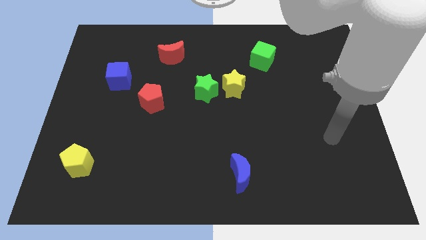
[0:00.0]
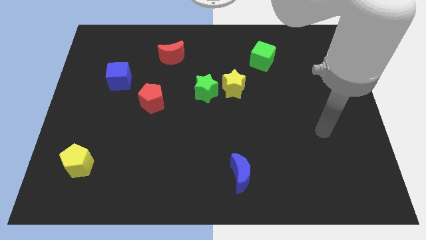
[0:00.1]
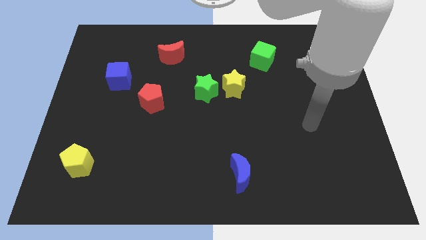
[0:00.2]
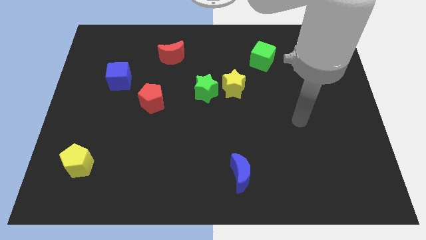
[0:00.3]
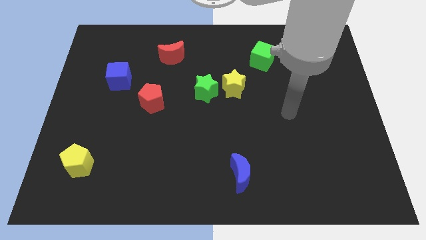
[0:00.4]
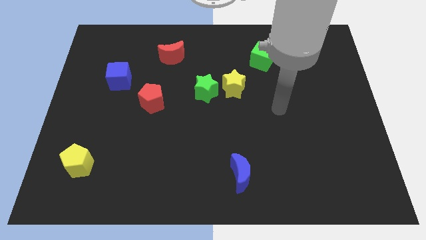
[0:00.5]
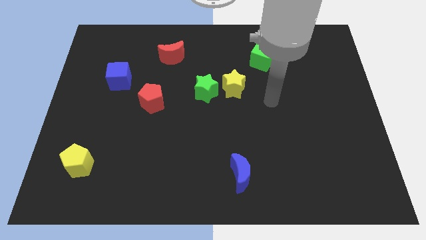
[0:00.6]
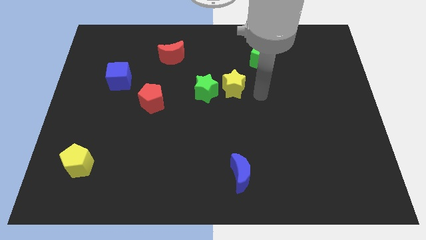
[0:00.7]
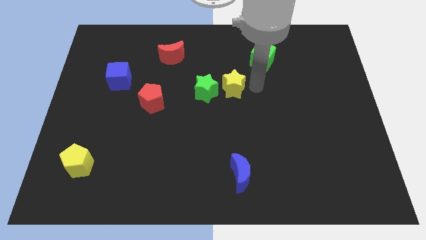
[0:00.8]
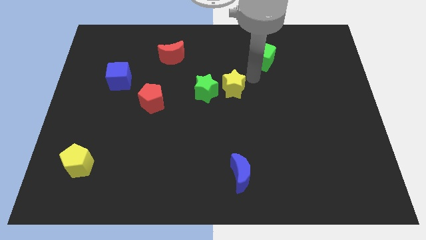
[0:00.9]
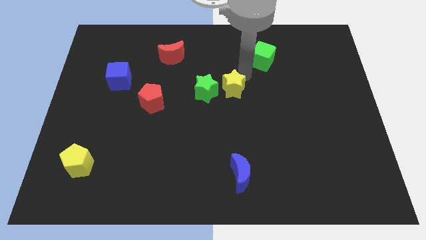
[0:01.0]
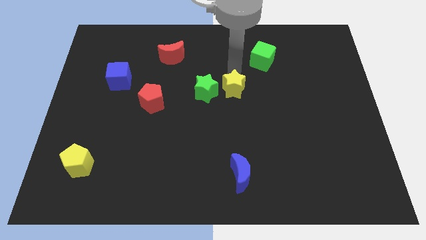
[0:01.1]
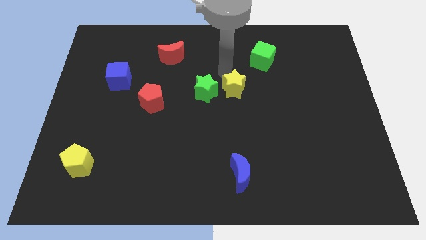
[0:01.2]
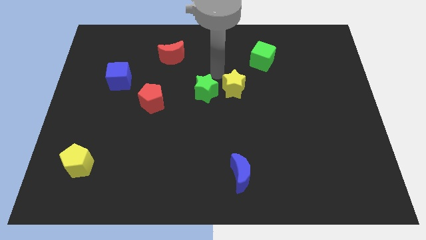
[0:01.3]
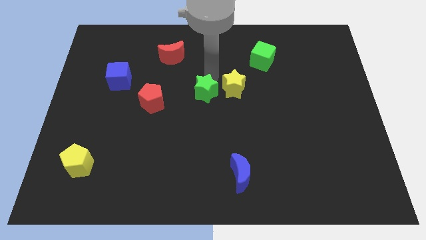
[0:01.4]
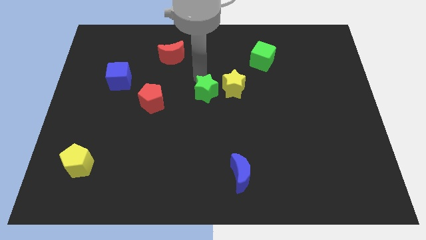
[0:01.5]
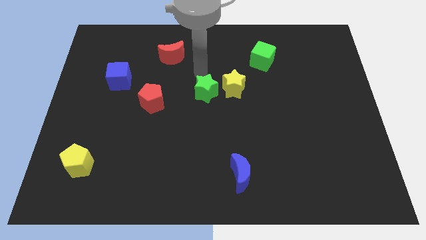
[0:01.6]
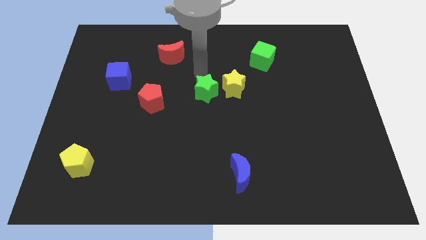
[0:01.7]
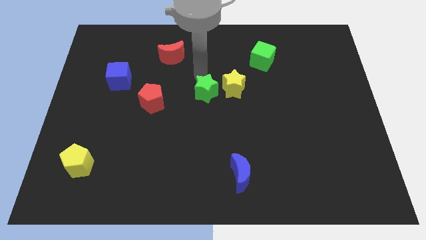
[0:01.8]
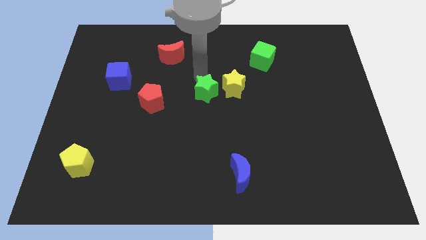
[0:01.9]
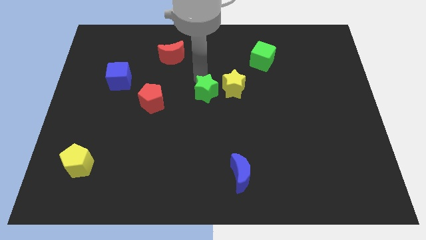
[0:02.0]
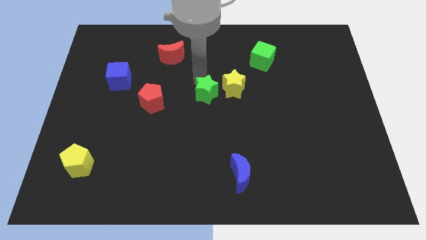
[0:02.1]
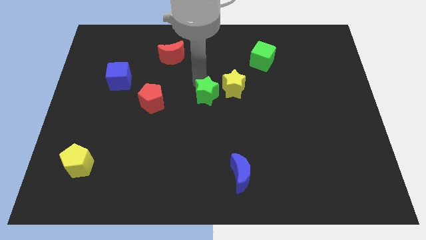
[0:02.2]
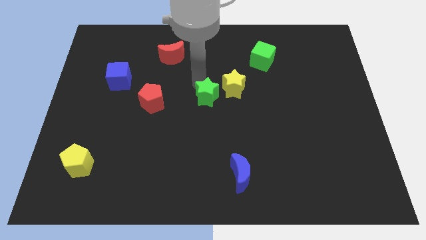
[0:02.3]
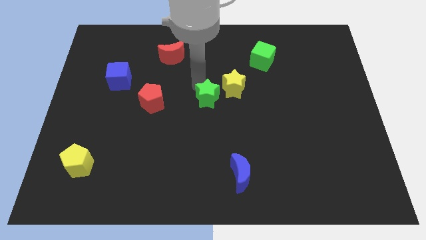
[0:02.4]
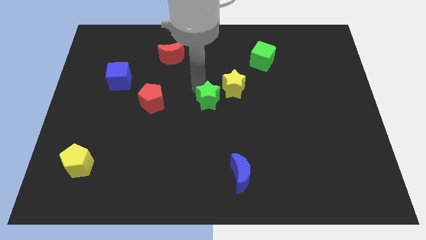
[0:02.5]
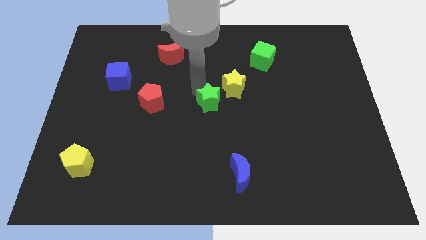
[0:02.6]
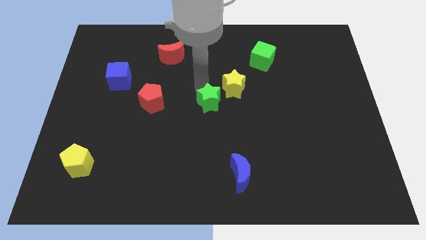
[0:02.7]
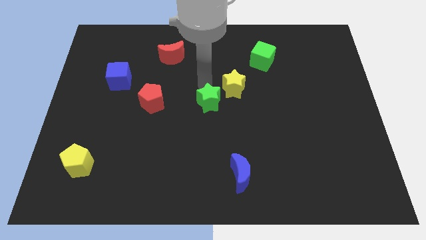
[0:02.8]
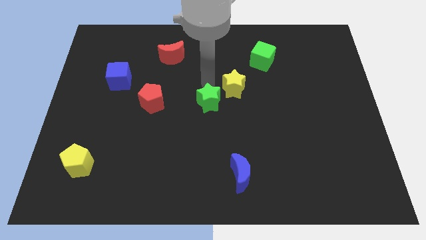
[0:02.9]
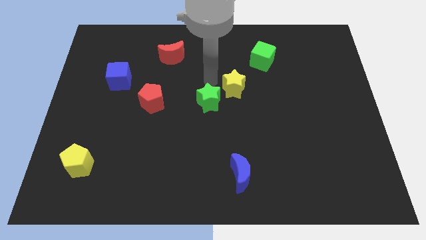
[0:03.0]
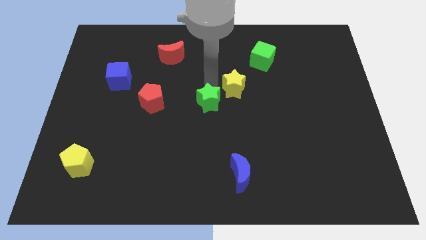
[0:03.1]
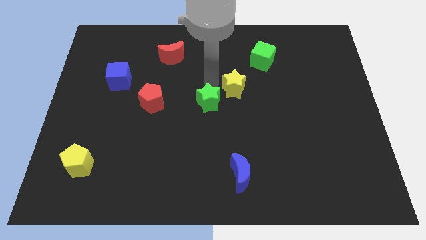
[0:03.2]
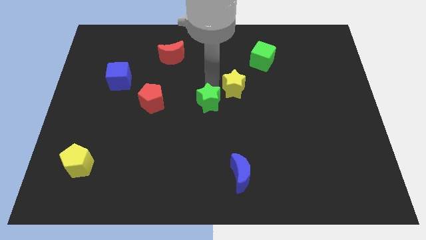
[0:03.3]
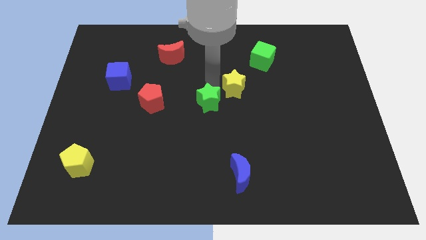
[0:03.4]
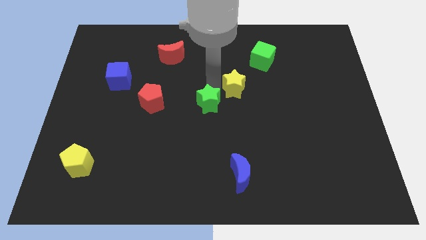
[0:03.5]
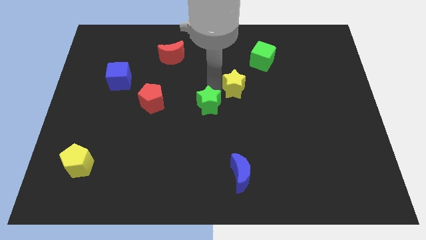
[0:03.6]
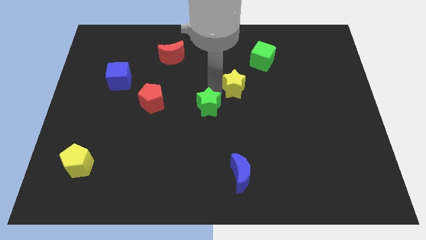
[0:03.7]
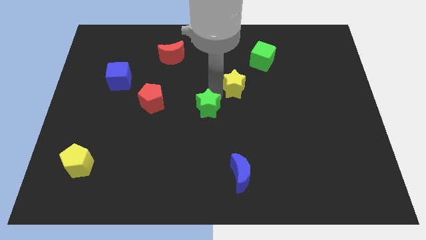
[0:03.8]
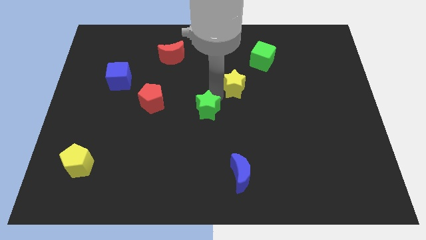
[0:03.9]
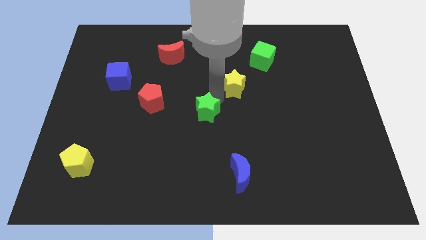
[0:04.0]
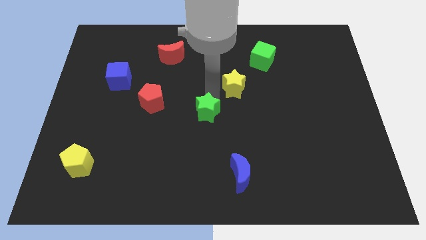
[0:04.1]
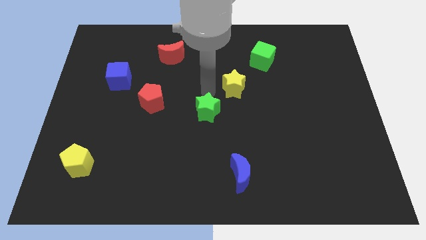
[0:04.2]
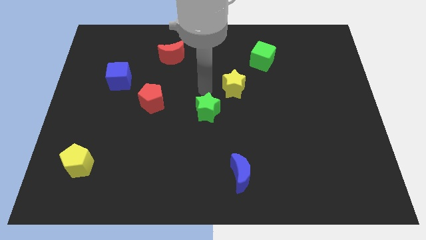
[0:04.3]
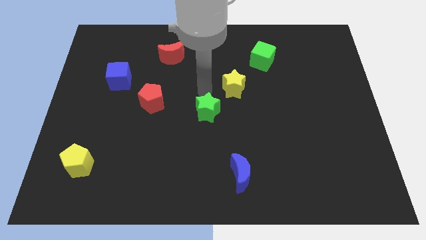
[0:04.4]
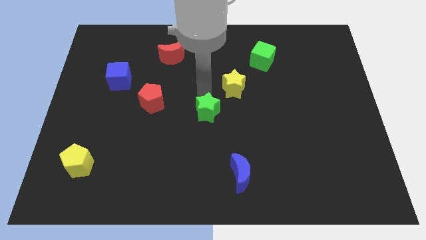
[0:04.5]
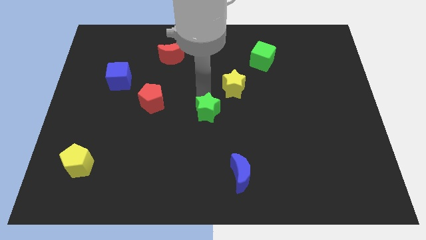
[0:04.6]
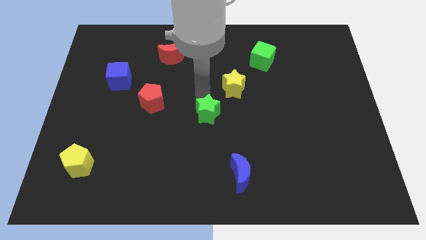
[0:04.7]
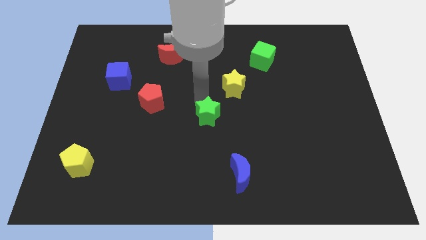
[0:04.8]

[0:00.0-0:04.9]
slide the green star slightly downwards

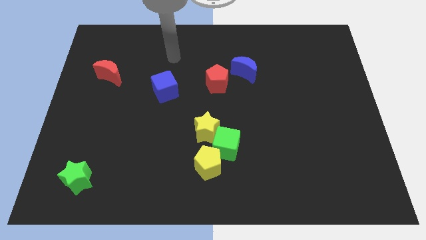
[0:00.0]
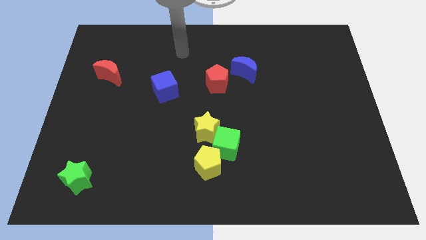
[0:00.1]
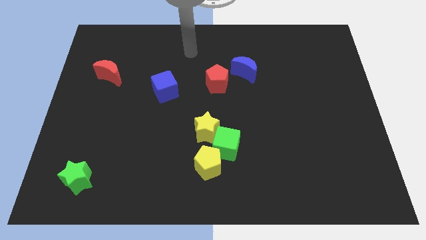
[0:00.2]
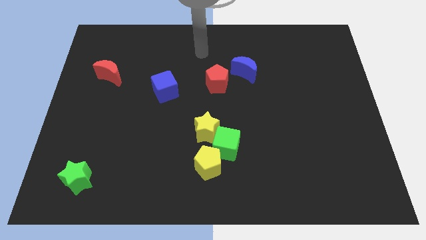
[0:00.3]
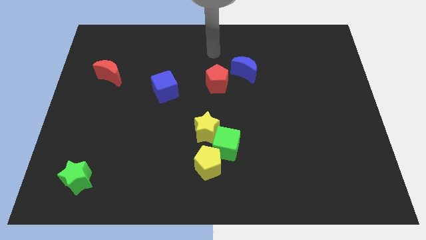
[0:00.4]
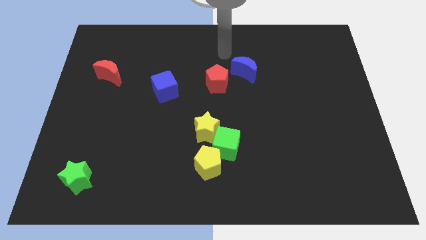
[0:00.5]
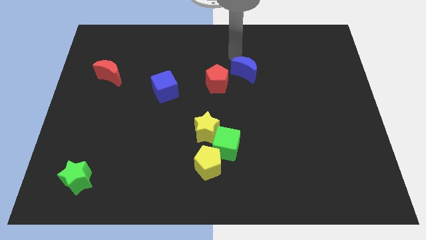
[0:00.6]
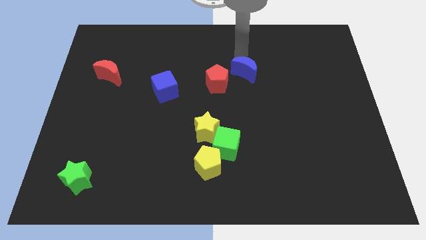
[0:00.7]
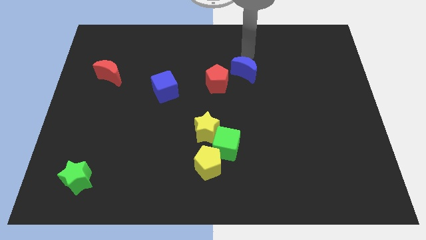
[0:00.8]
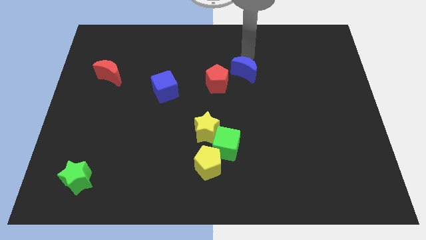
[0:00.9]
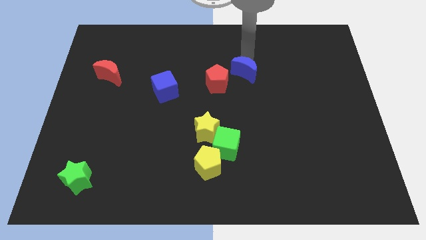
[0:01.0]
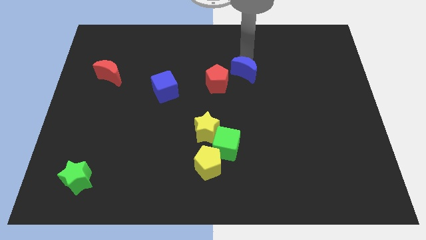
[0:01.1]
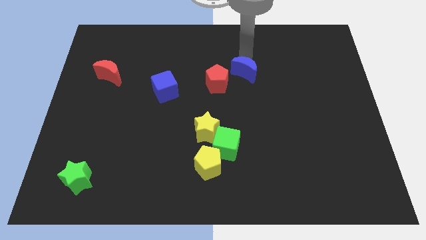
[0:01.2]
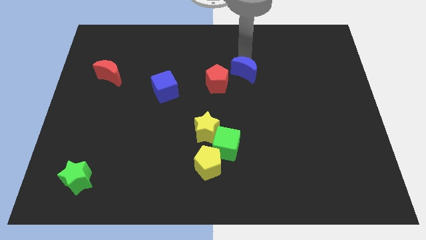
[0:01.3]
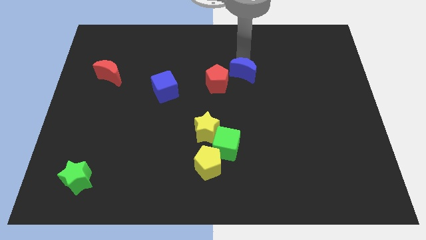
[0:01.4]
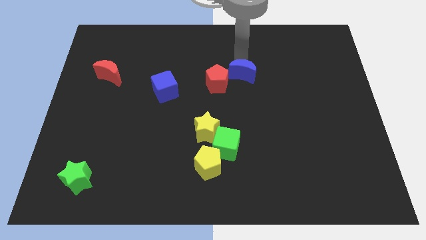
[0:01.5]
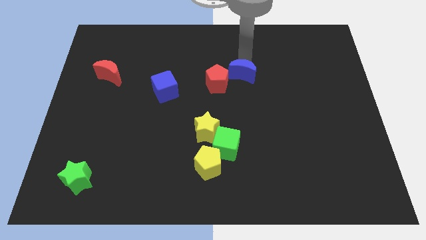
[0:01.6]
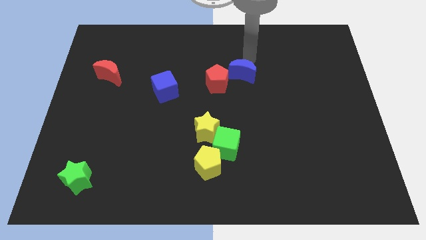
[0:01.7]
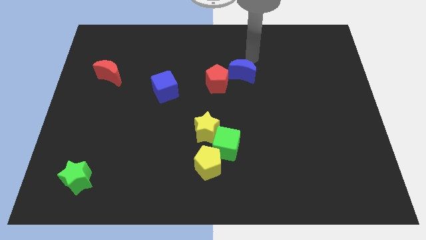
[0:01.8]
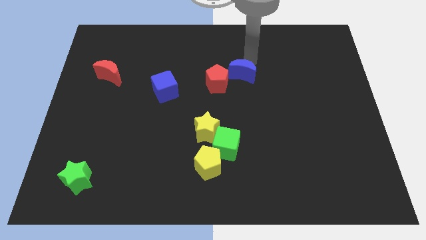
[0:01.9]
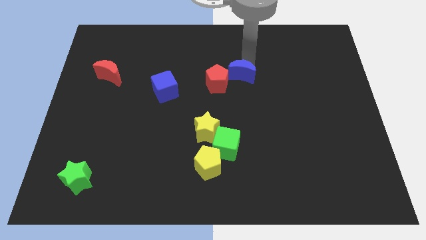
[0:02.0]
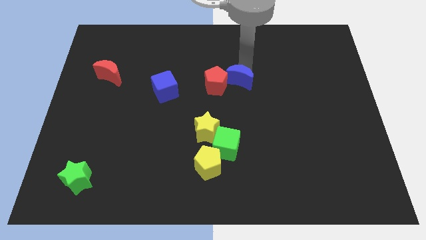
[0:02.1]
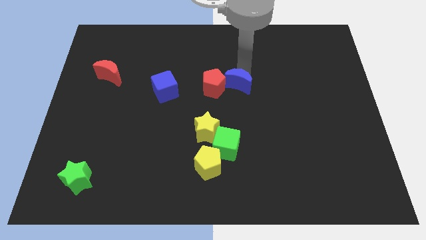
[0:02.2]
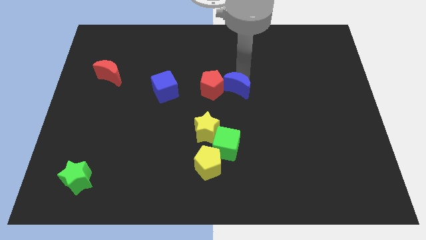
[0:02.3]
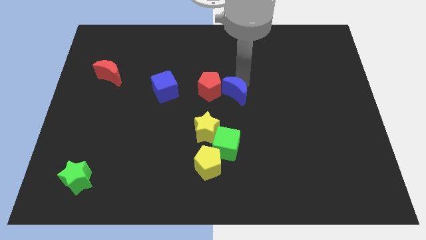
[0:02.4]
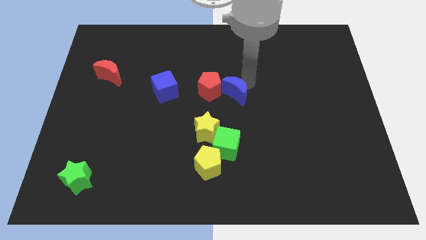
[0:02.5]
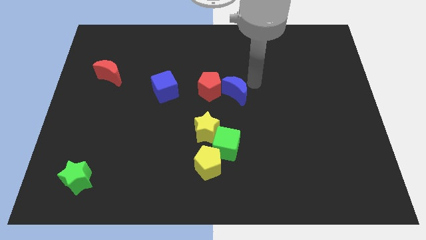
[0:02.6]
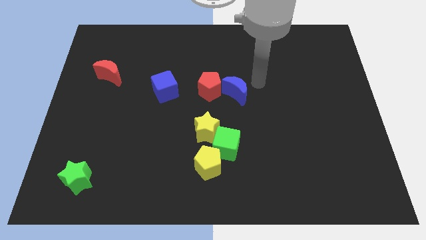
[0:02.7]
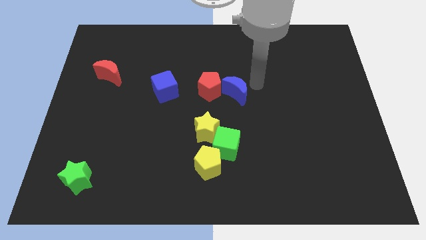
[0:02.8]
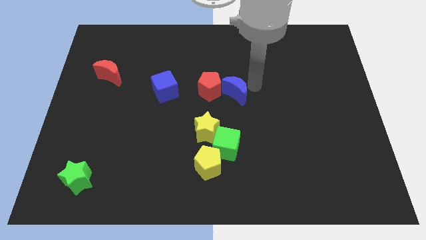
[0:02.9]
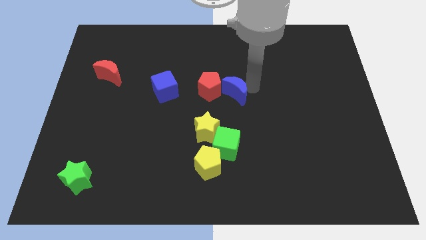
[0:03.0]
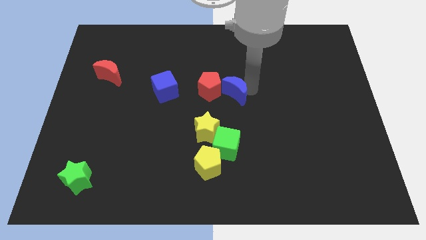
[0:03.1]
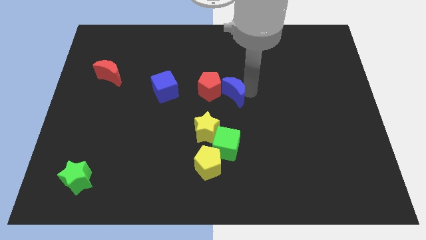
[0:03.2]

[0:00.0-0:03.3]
slide the blue moon diagonally downwards and left a little
